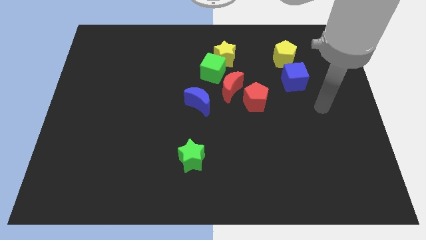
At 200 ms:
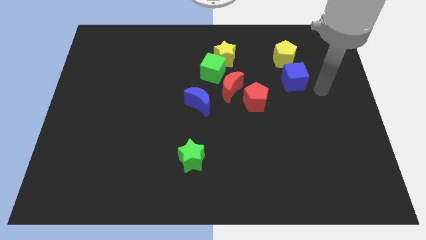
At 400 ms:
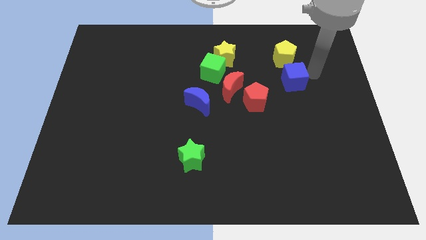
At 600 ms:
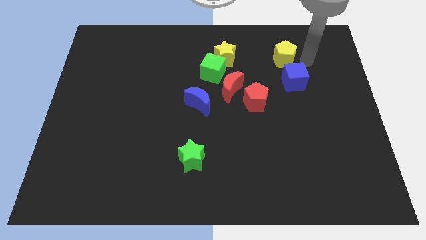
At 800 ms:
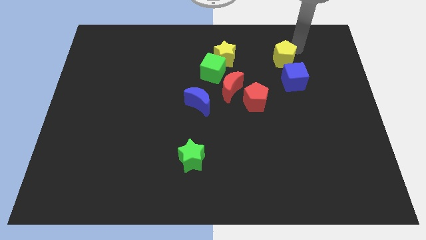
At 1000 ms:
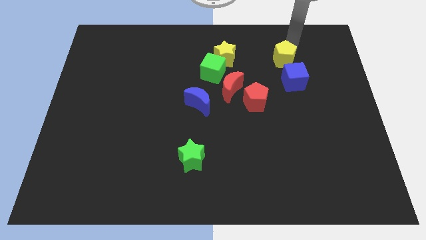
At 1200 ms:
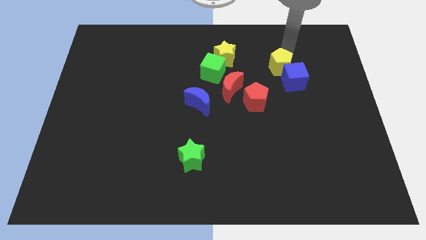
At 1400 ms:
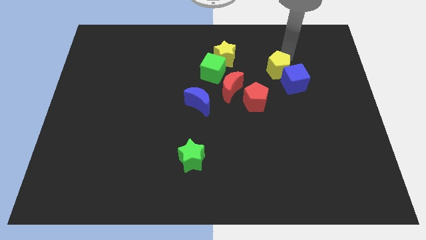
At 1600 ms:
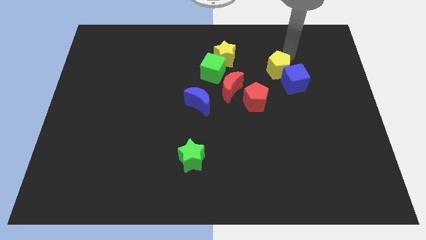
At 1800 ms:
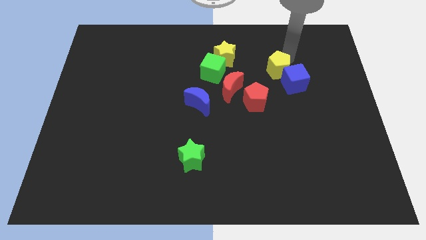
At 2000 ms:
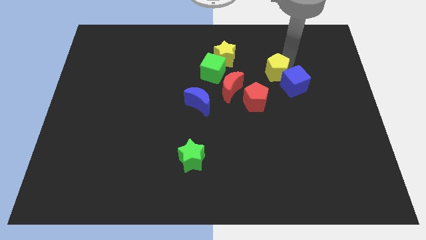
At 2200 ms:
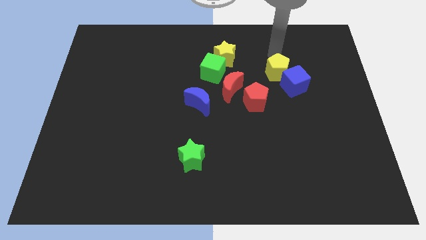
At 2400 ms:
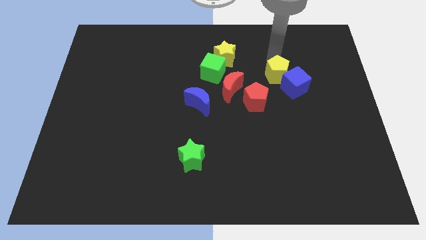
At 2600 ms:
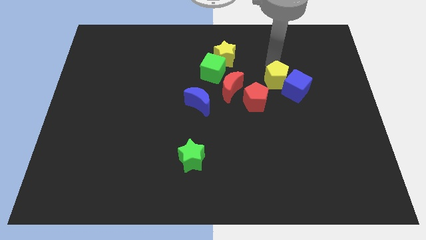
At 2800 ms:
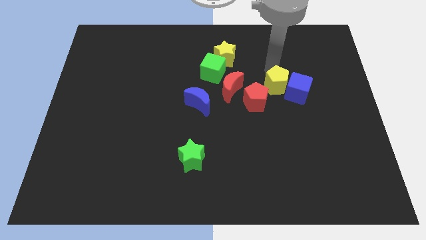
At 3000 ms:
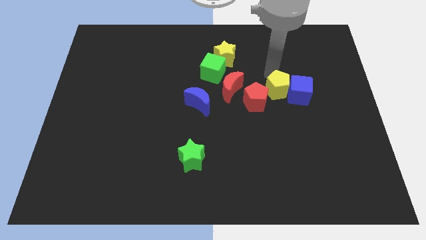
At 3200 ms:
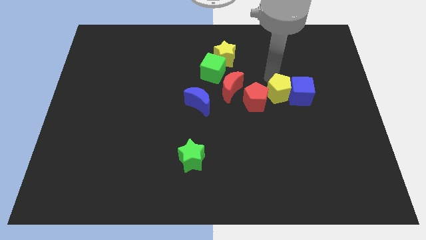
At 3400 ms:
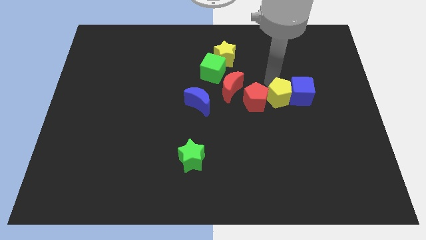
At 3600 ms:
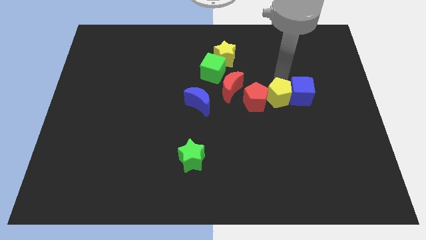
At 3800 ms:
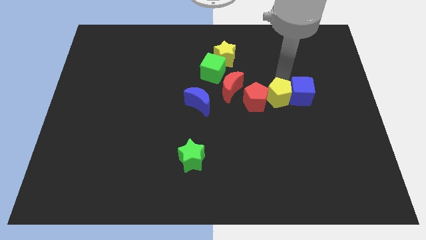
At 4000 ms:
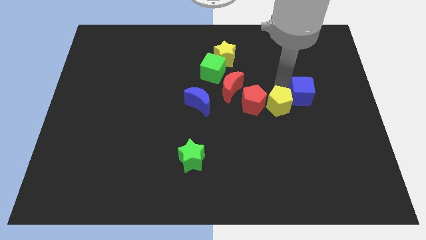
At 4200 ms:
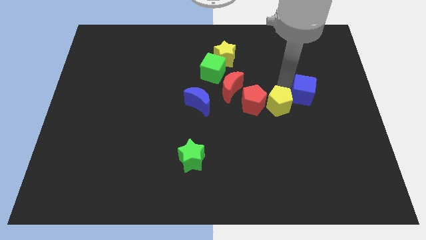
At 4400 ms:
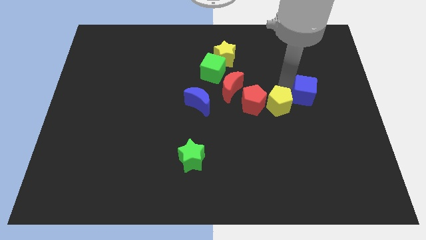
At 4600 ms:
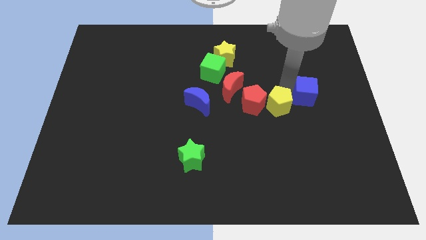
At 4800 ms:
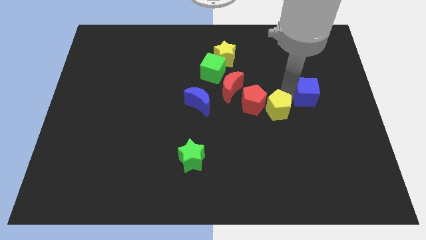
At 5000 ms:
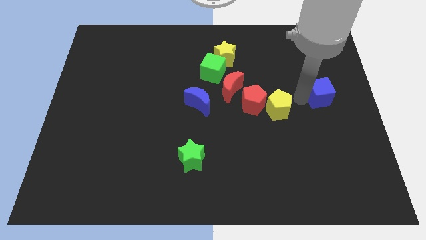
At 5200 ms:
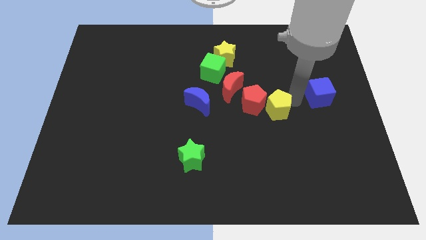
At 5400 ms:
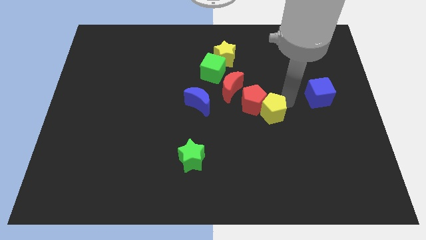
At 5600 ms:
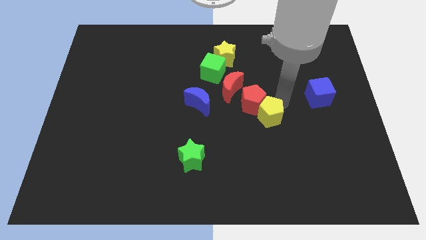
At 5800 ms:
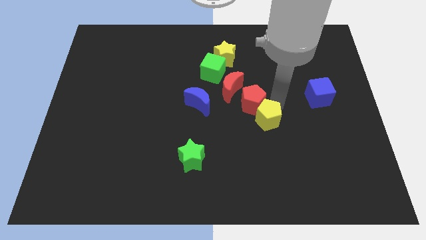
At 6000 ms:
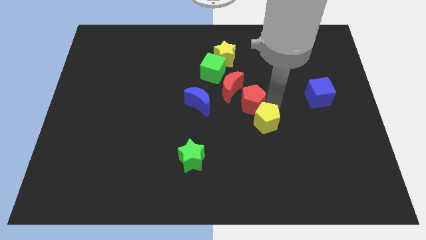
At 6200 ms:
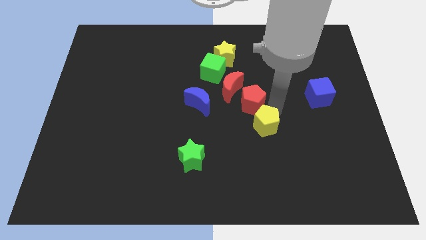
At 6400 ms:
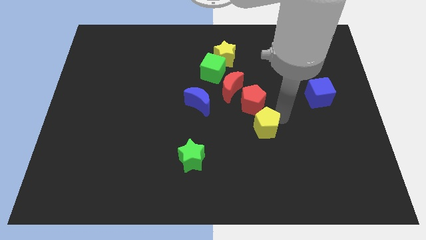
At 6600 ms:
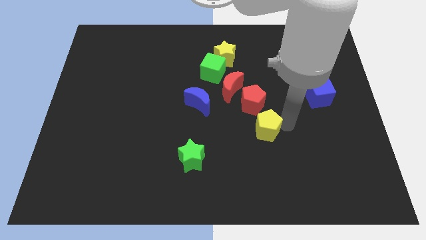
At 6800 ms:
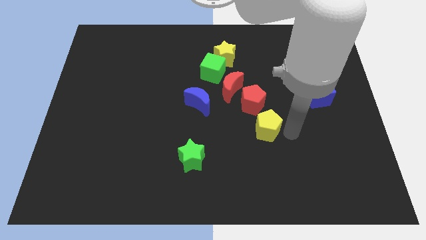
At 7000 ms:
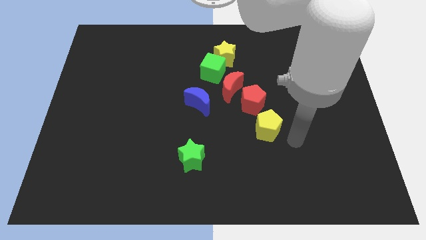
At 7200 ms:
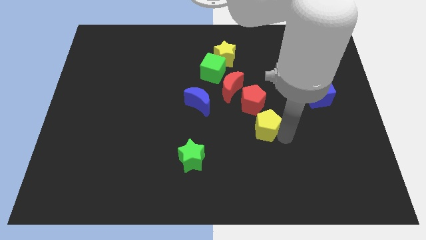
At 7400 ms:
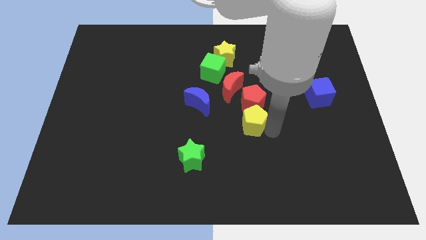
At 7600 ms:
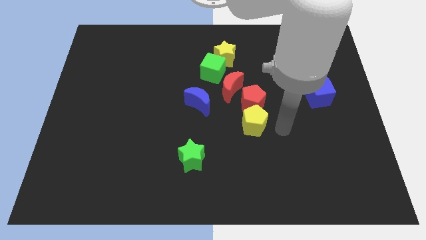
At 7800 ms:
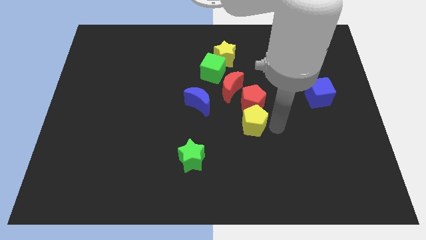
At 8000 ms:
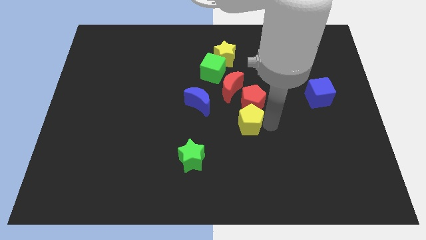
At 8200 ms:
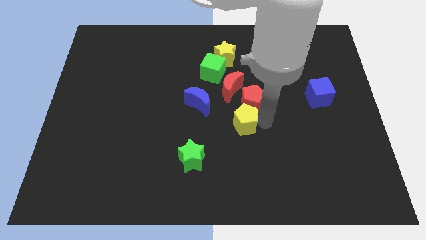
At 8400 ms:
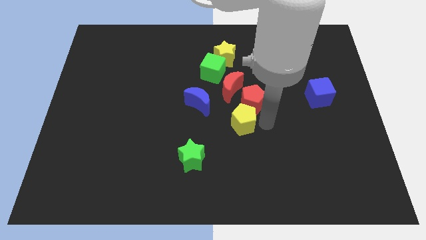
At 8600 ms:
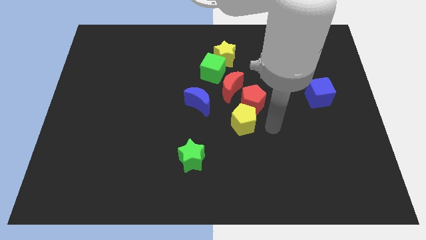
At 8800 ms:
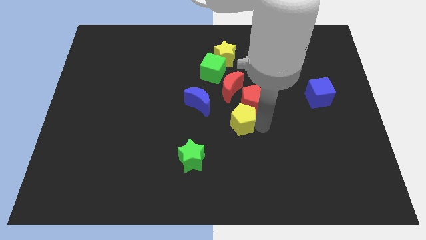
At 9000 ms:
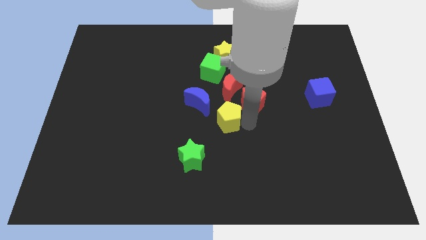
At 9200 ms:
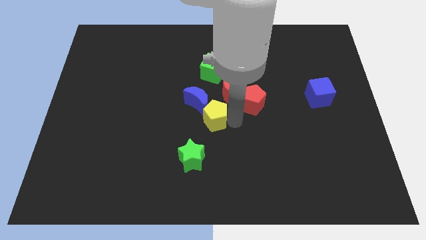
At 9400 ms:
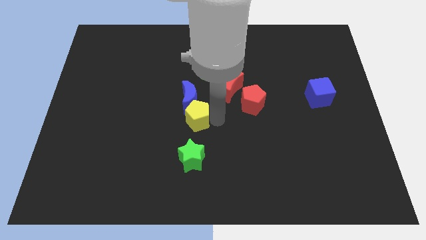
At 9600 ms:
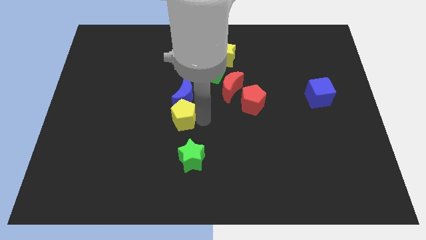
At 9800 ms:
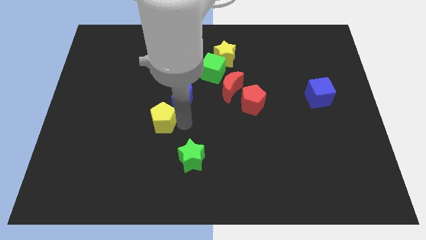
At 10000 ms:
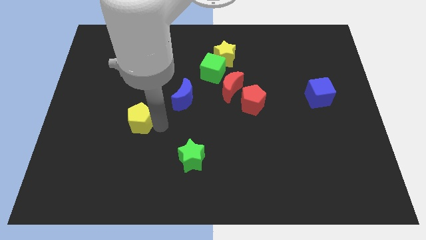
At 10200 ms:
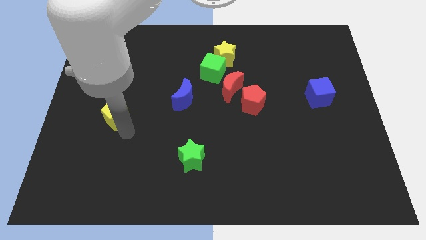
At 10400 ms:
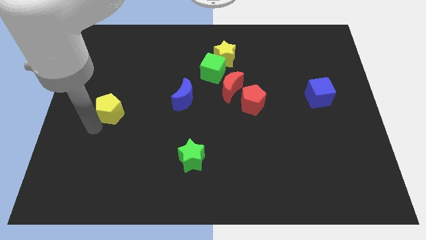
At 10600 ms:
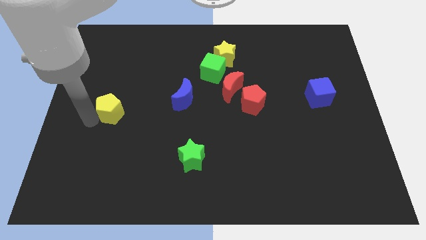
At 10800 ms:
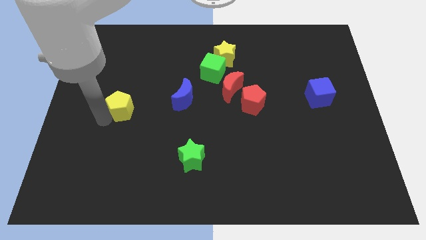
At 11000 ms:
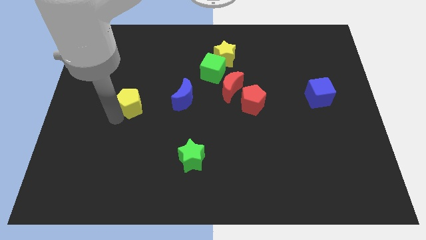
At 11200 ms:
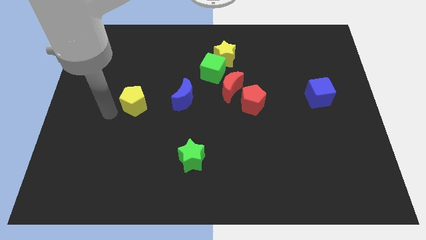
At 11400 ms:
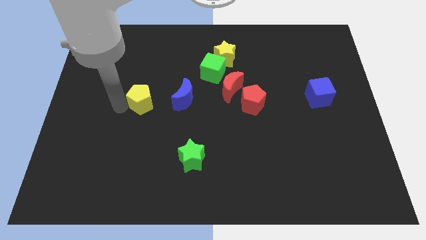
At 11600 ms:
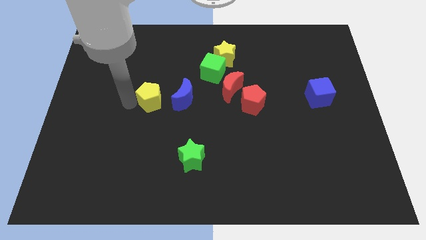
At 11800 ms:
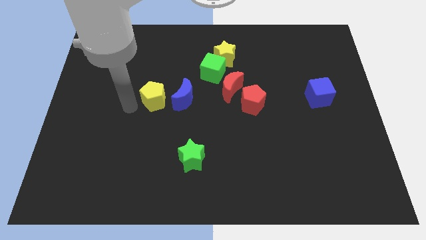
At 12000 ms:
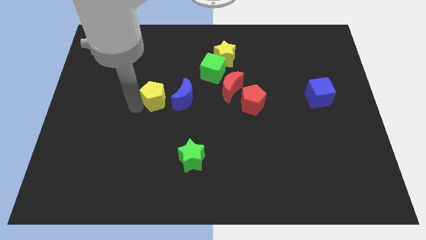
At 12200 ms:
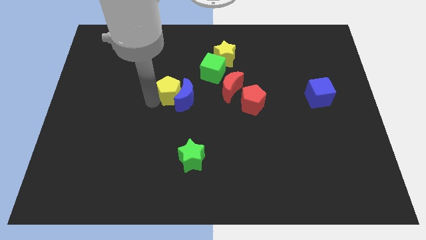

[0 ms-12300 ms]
put the yellow pentagon left of the red moon
